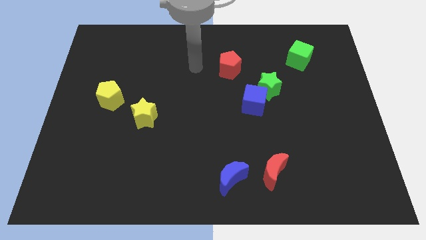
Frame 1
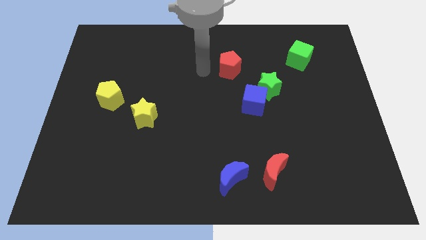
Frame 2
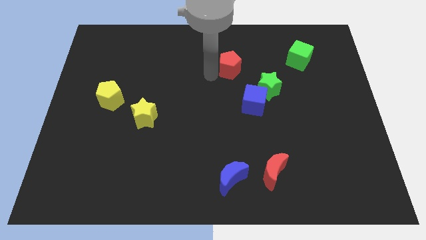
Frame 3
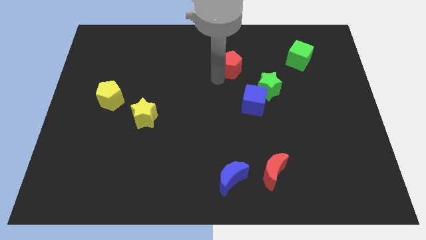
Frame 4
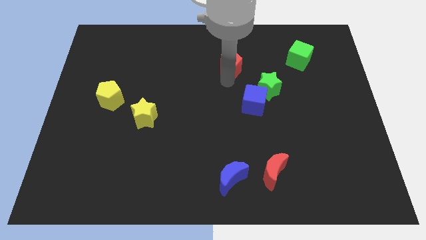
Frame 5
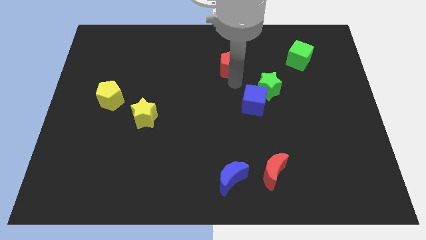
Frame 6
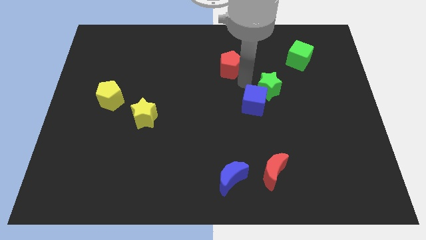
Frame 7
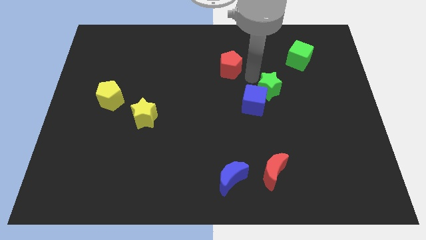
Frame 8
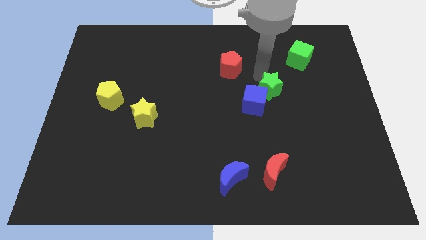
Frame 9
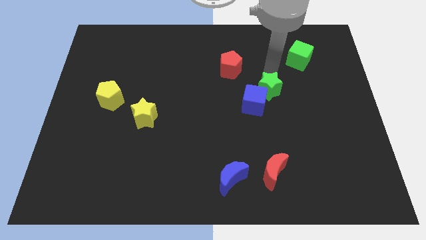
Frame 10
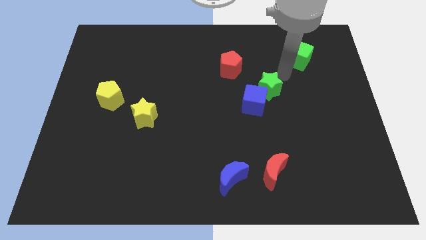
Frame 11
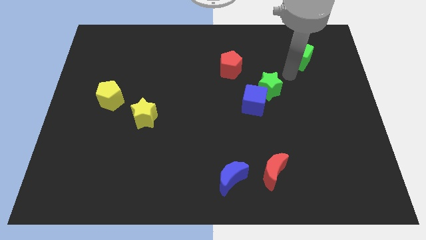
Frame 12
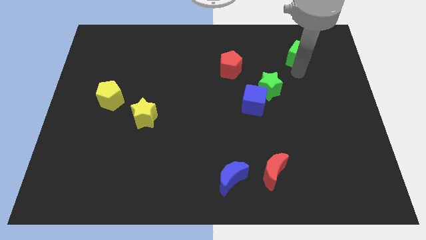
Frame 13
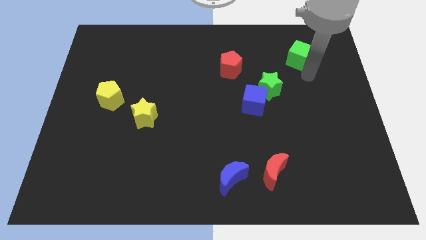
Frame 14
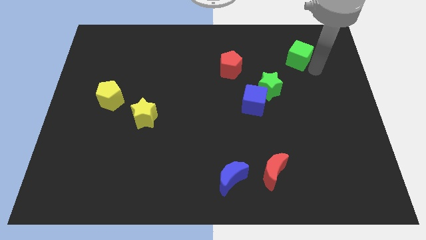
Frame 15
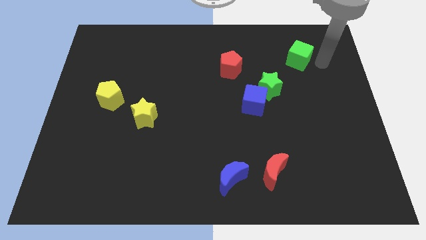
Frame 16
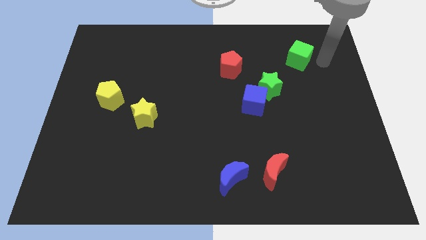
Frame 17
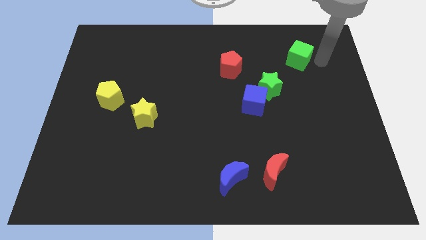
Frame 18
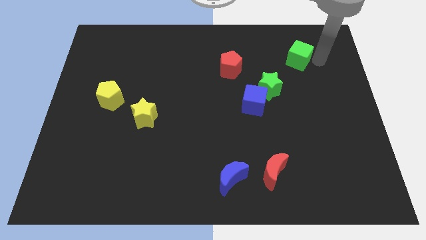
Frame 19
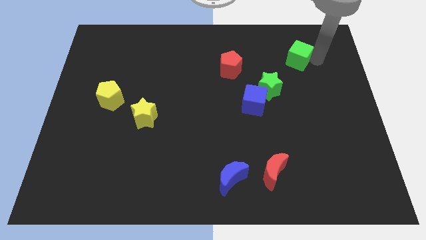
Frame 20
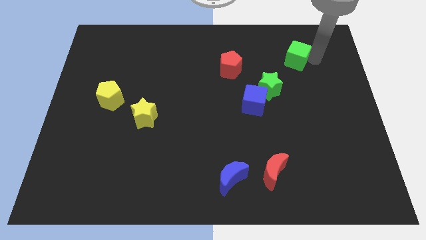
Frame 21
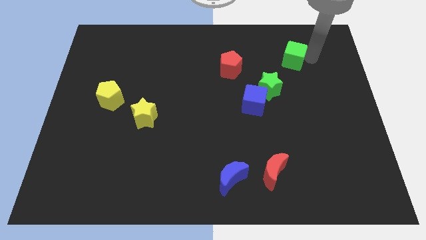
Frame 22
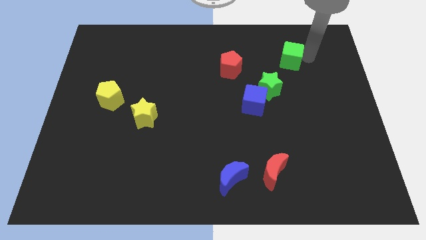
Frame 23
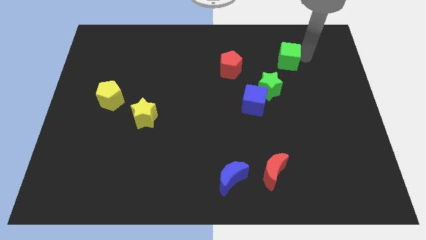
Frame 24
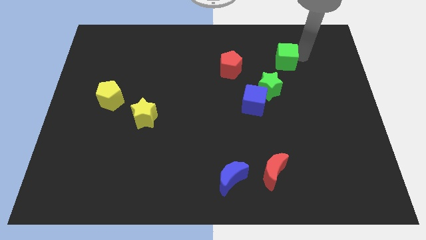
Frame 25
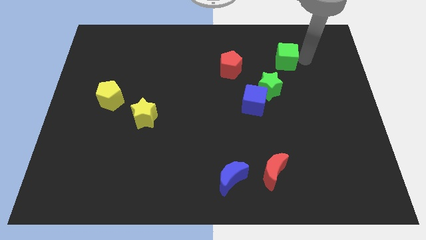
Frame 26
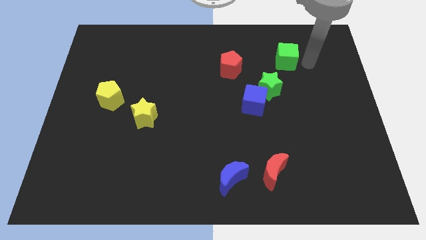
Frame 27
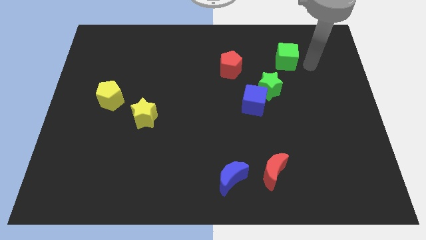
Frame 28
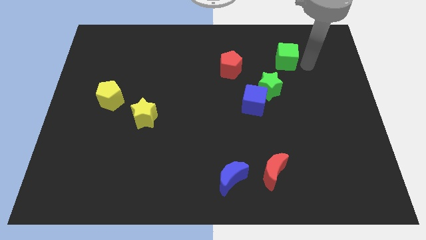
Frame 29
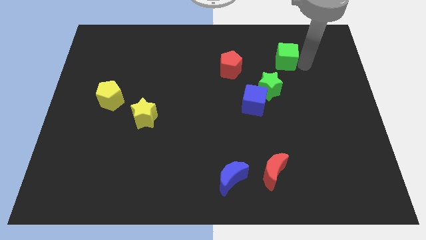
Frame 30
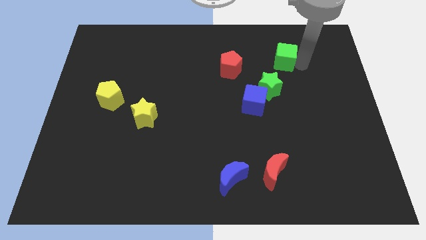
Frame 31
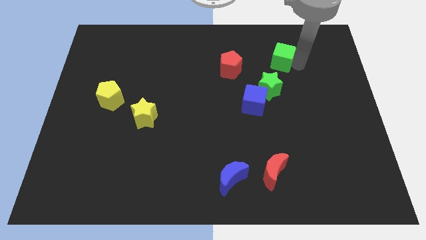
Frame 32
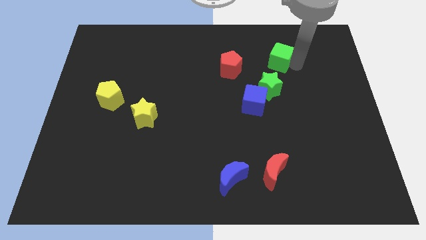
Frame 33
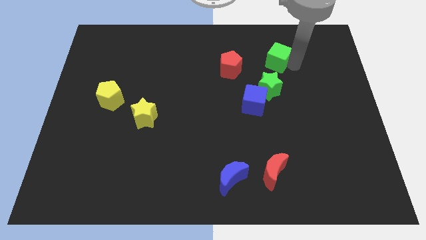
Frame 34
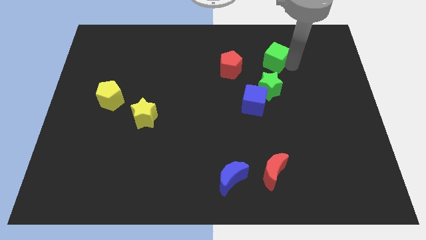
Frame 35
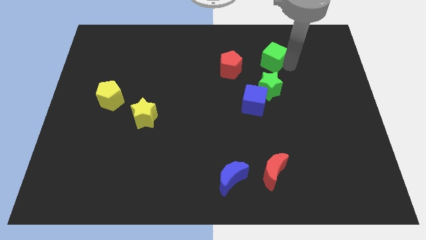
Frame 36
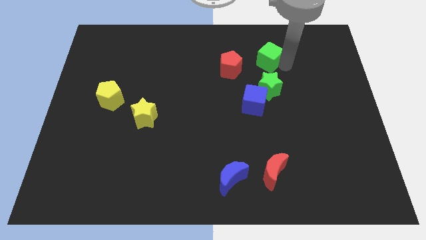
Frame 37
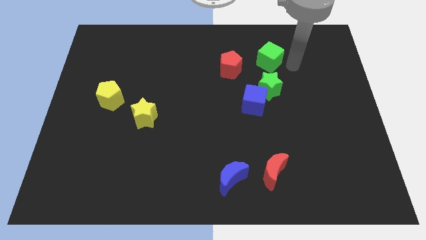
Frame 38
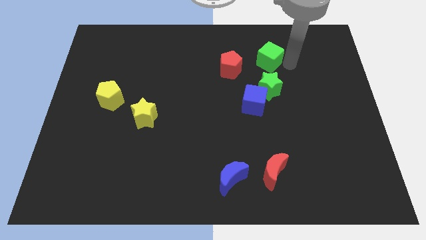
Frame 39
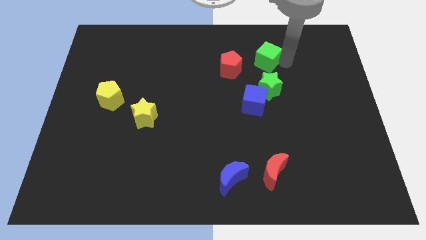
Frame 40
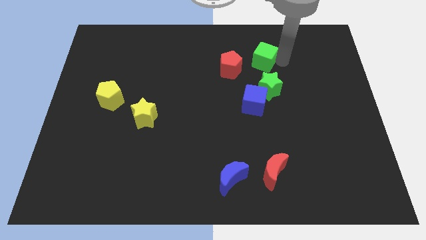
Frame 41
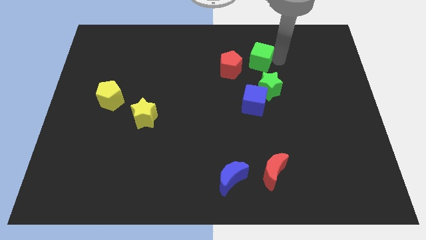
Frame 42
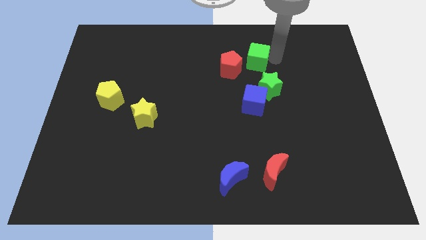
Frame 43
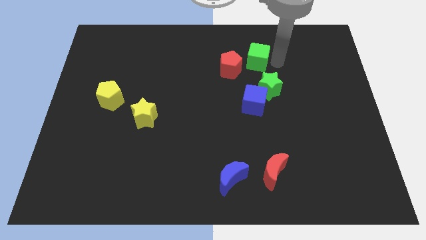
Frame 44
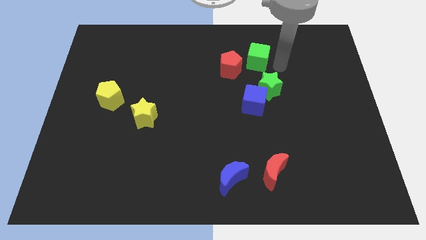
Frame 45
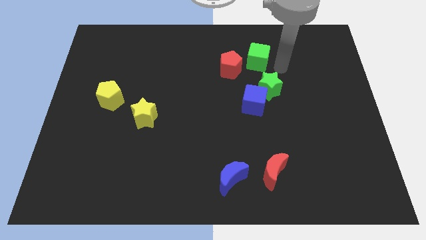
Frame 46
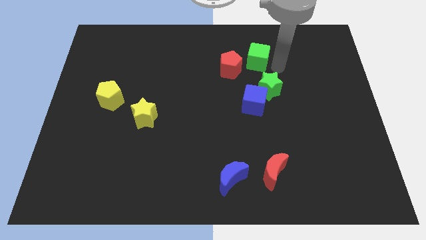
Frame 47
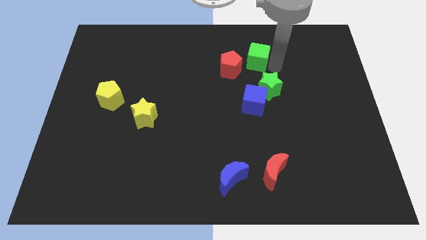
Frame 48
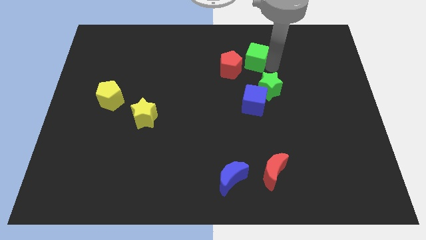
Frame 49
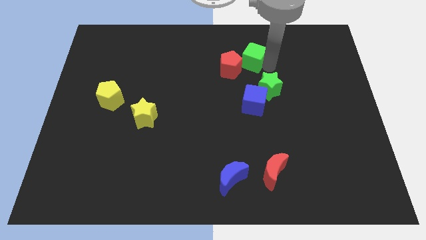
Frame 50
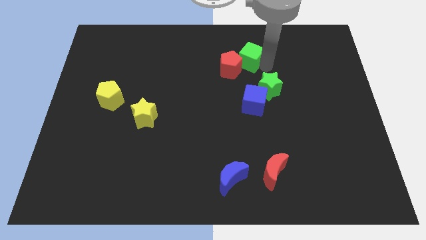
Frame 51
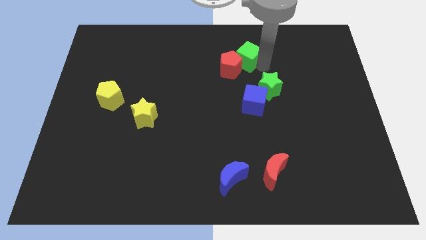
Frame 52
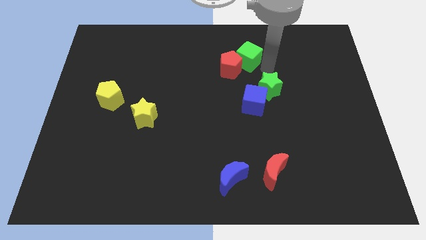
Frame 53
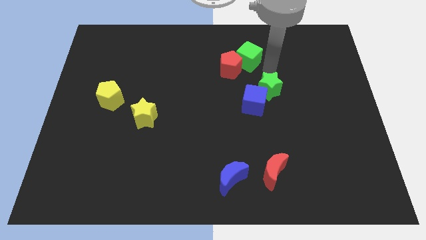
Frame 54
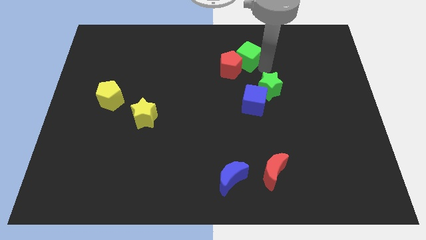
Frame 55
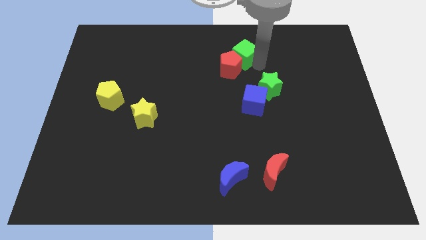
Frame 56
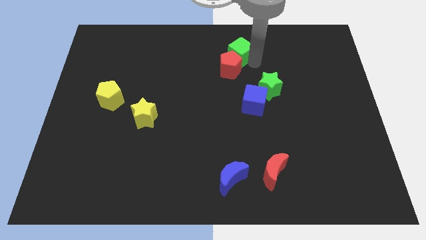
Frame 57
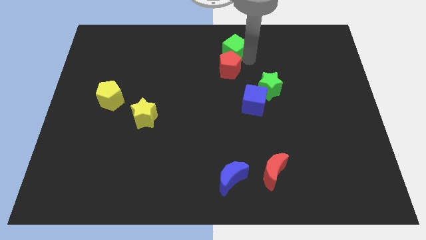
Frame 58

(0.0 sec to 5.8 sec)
push the green cube to the top

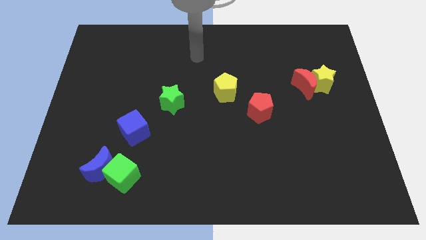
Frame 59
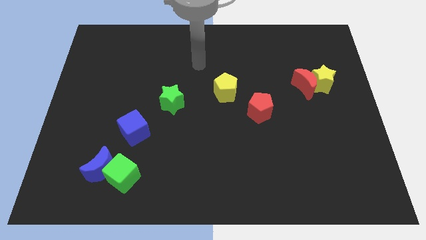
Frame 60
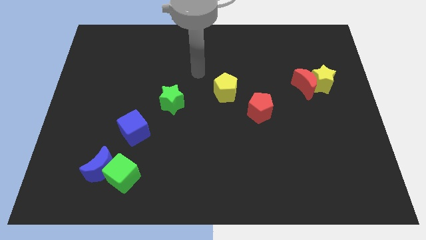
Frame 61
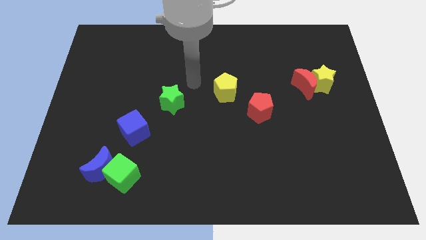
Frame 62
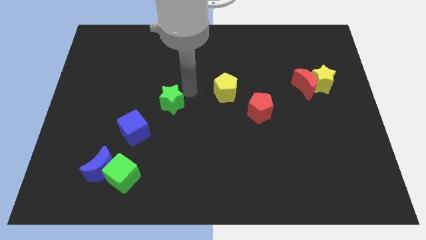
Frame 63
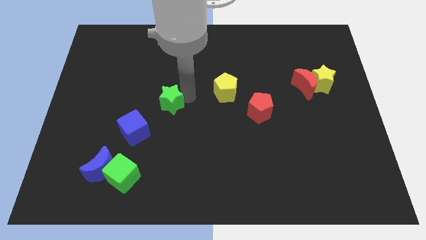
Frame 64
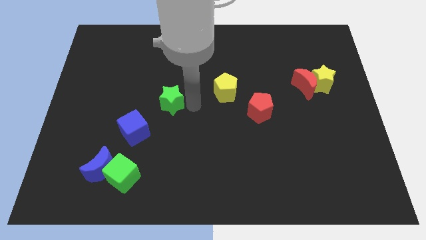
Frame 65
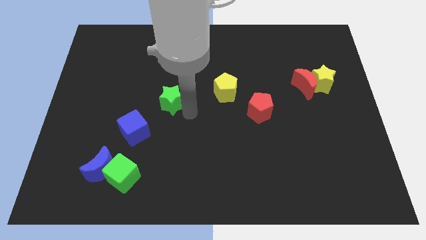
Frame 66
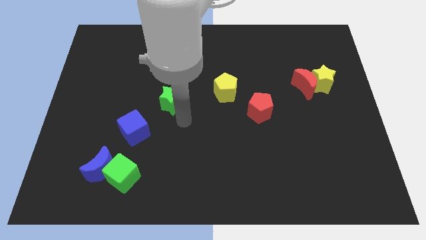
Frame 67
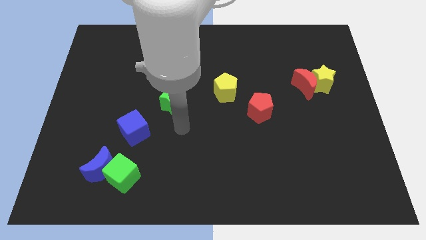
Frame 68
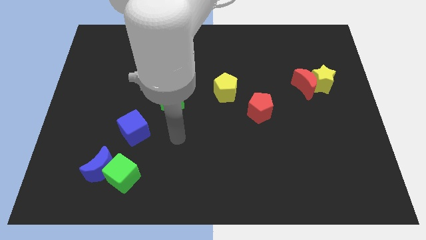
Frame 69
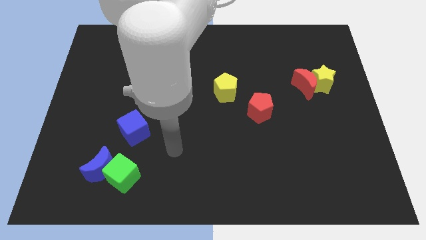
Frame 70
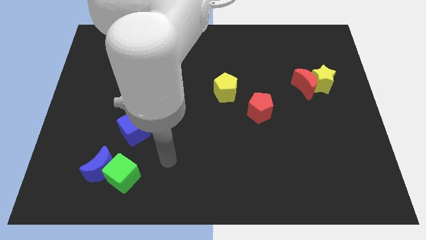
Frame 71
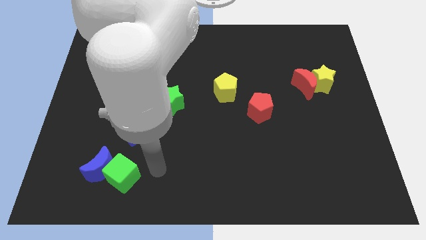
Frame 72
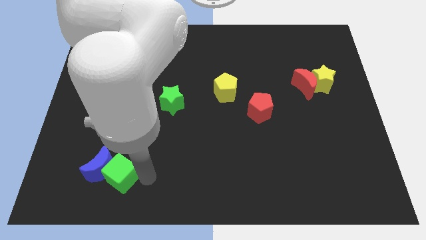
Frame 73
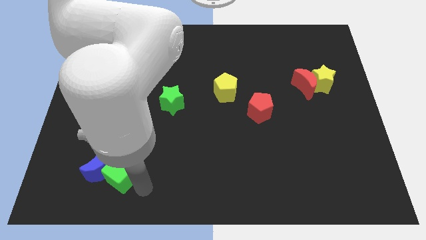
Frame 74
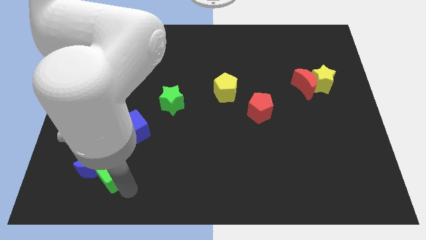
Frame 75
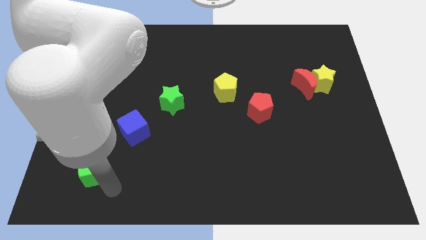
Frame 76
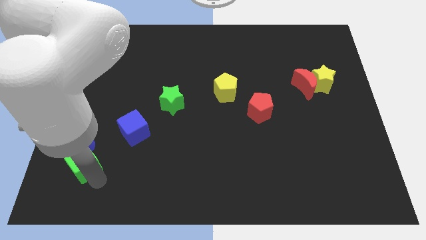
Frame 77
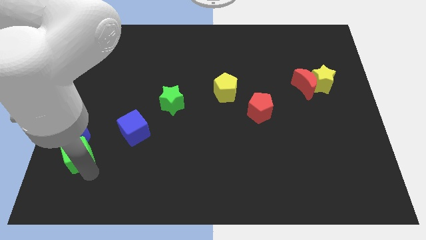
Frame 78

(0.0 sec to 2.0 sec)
move the blue moon to the center left
